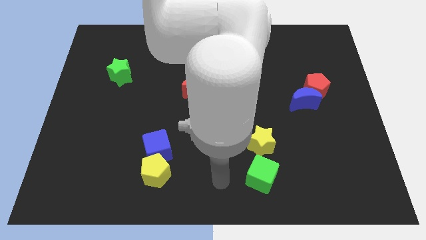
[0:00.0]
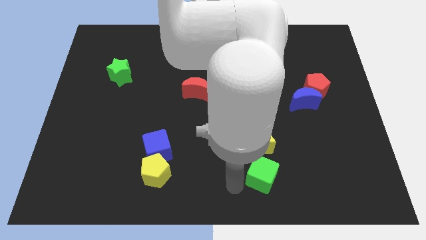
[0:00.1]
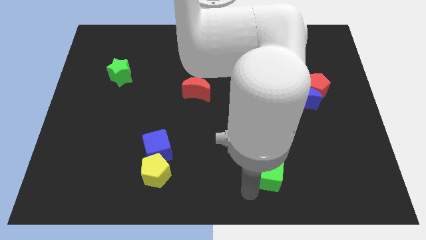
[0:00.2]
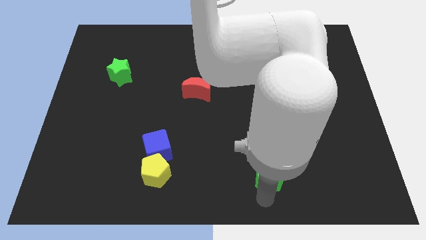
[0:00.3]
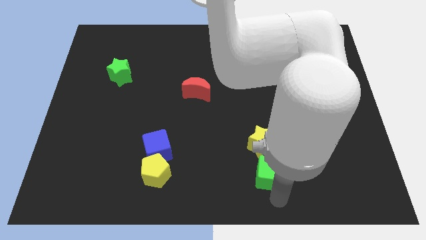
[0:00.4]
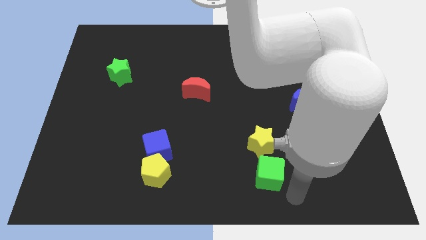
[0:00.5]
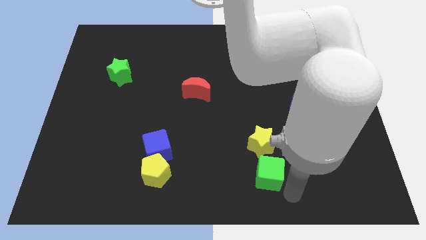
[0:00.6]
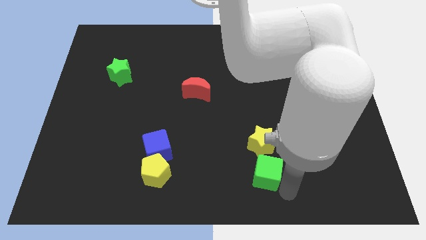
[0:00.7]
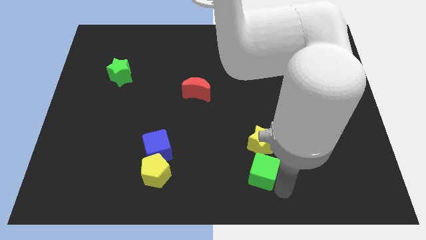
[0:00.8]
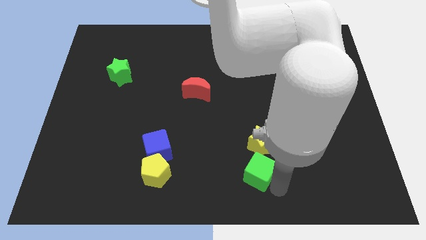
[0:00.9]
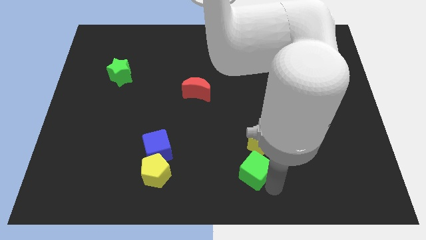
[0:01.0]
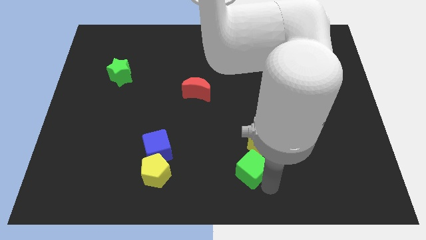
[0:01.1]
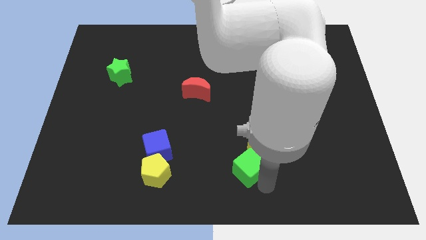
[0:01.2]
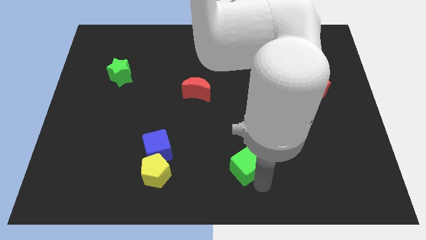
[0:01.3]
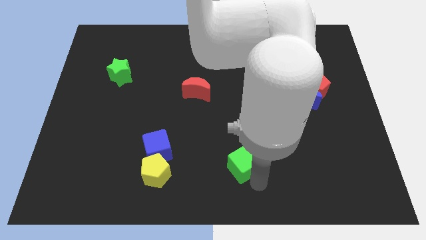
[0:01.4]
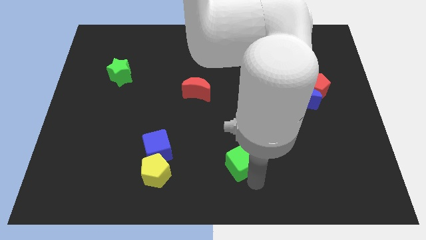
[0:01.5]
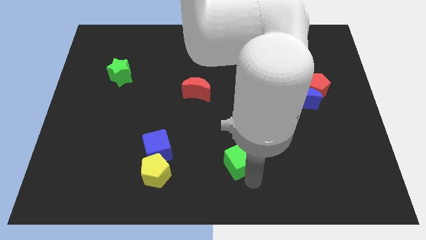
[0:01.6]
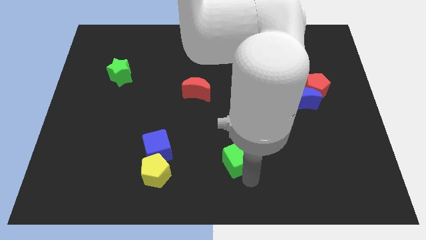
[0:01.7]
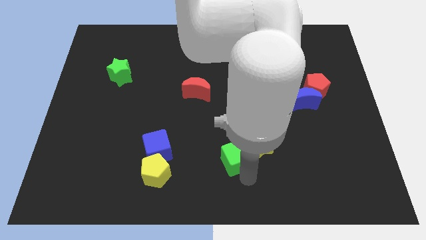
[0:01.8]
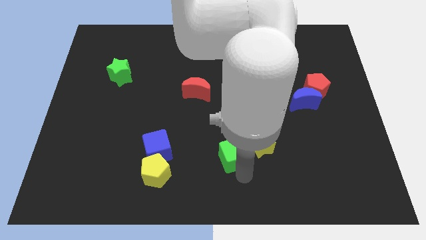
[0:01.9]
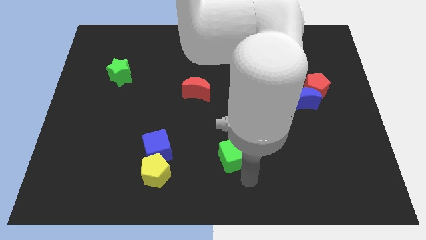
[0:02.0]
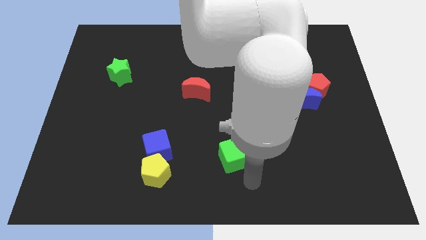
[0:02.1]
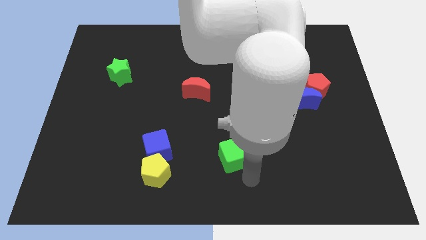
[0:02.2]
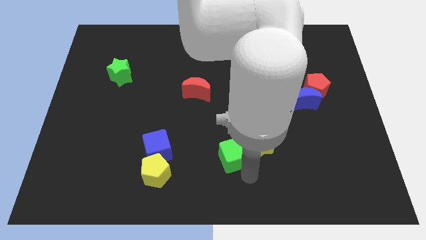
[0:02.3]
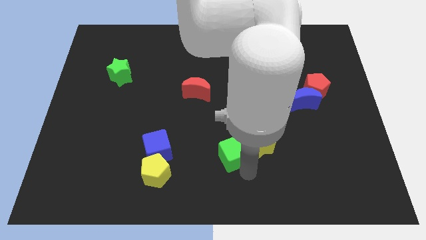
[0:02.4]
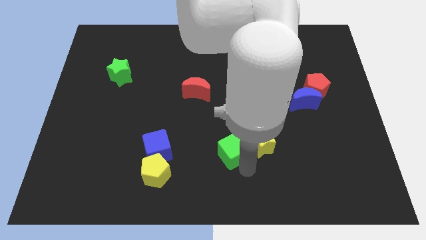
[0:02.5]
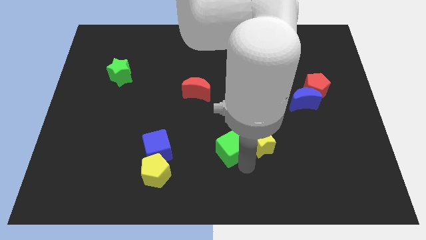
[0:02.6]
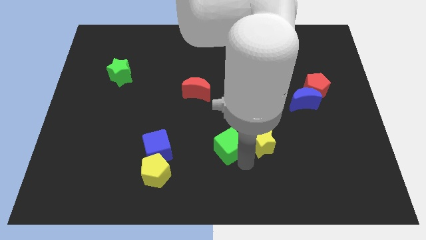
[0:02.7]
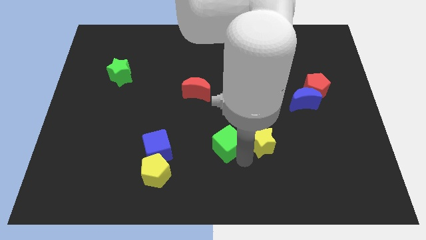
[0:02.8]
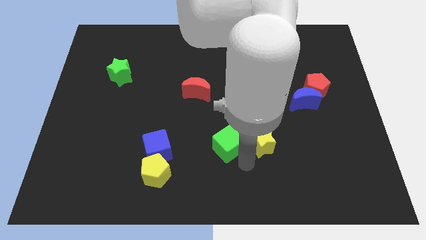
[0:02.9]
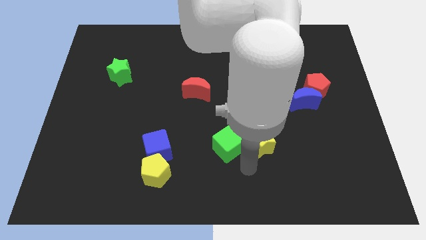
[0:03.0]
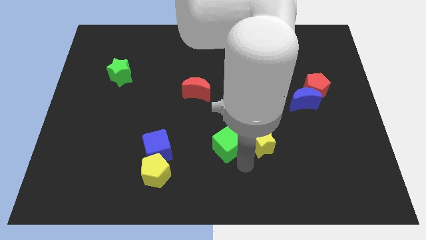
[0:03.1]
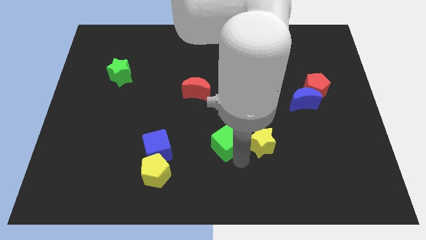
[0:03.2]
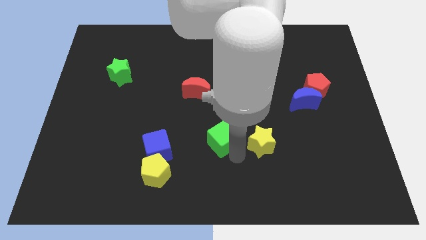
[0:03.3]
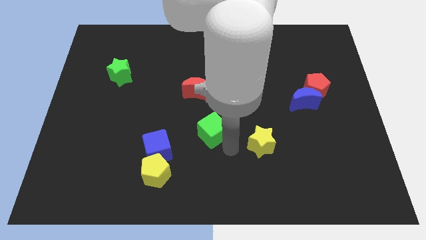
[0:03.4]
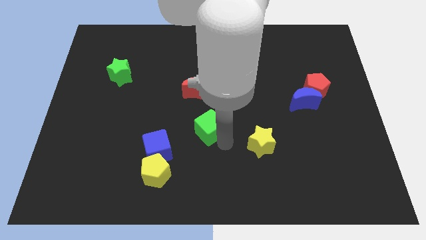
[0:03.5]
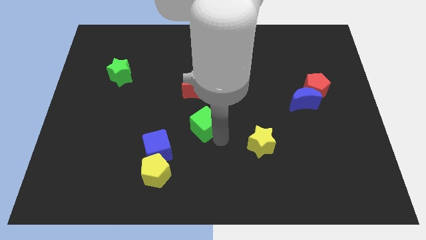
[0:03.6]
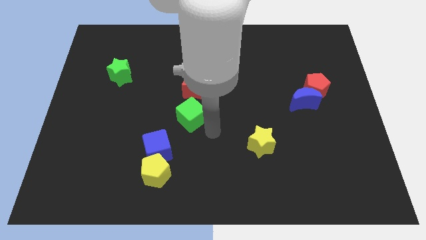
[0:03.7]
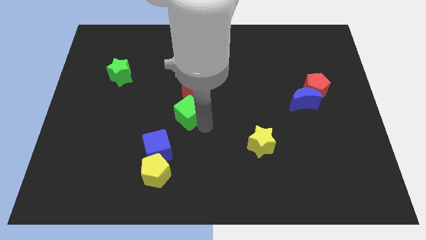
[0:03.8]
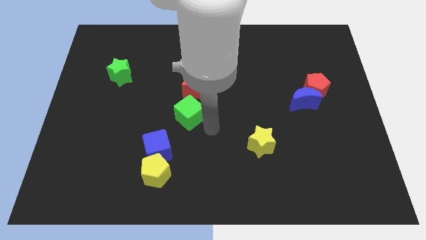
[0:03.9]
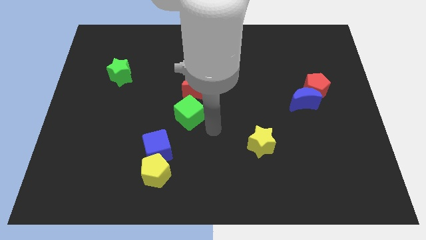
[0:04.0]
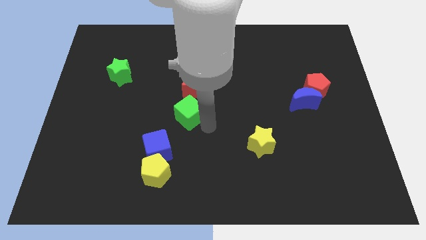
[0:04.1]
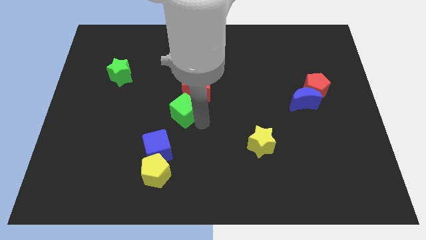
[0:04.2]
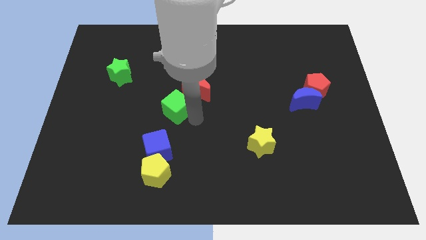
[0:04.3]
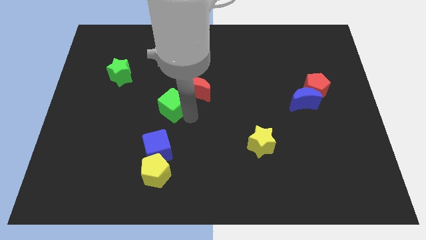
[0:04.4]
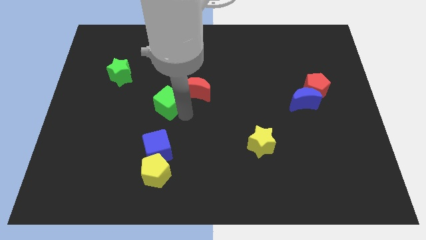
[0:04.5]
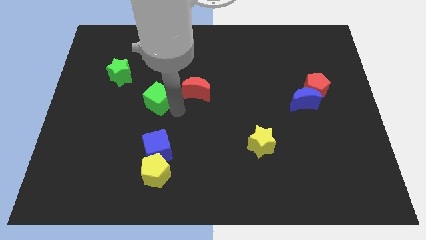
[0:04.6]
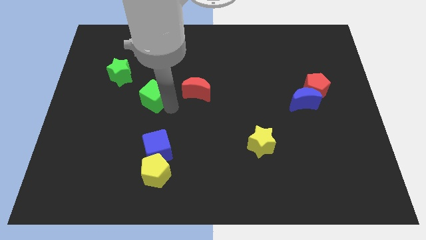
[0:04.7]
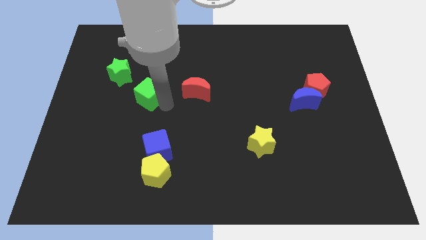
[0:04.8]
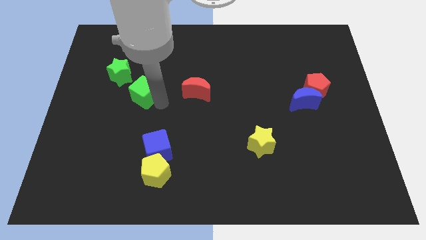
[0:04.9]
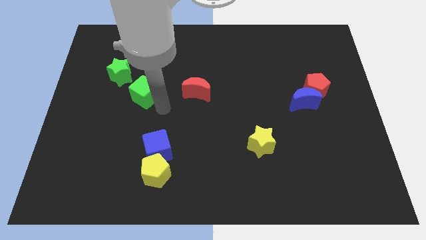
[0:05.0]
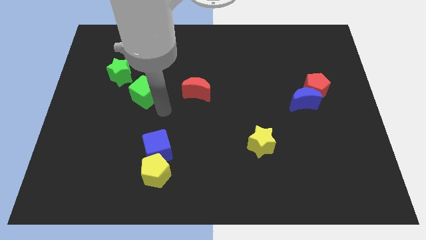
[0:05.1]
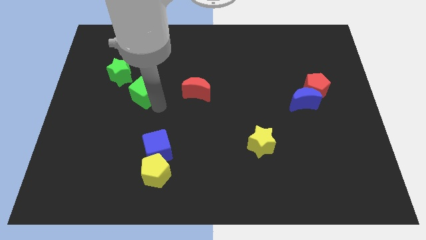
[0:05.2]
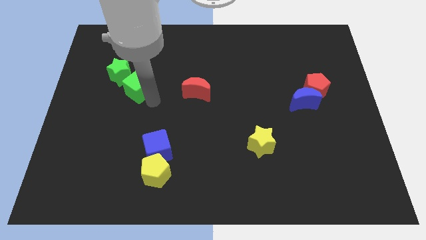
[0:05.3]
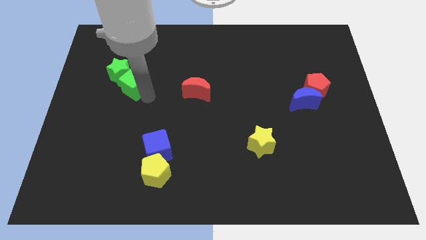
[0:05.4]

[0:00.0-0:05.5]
push the green cube close to the green star
